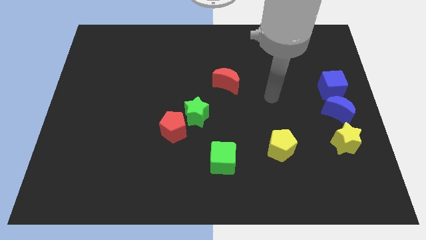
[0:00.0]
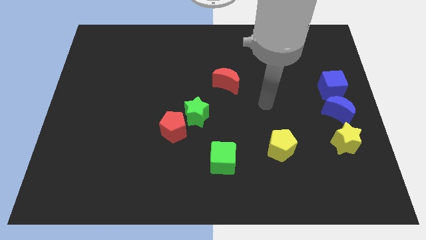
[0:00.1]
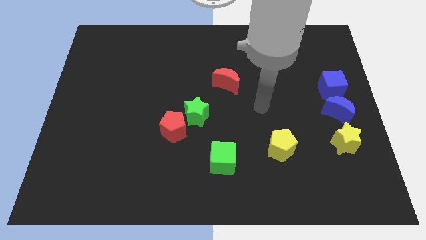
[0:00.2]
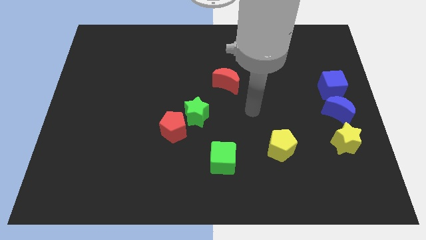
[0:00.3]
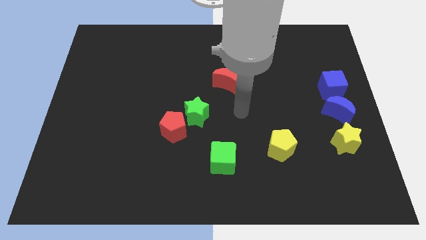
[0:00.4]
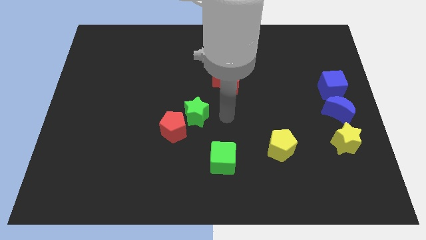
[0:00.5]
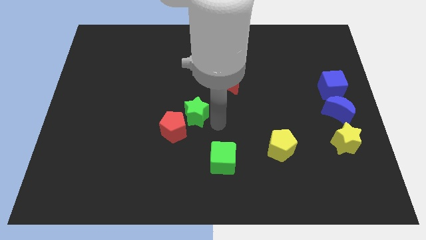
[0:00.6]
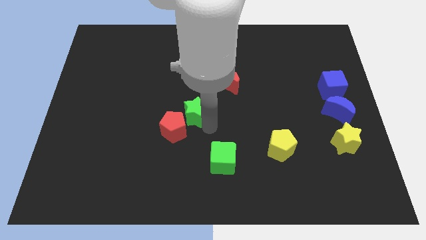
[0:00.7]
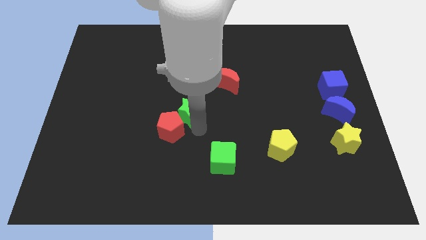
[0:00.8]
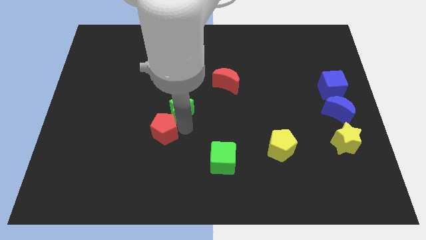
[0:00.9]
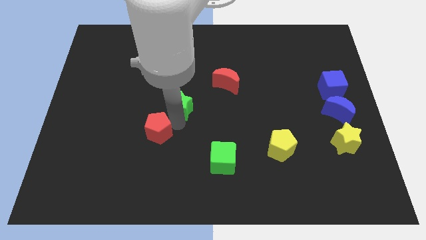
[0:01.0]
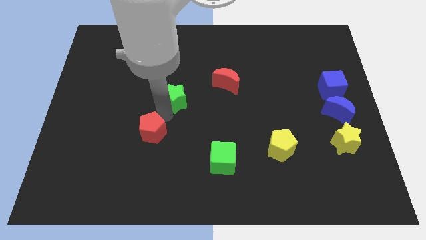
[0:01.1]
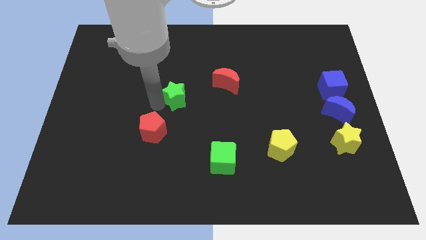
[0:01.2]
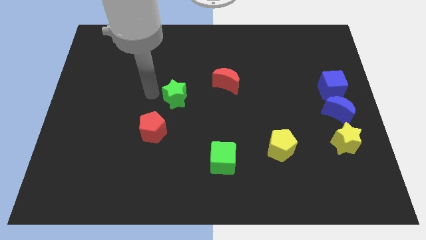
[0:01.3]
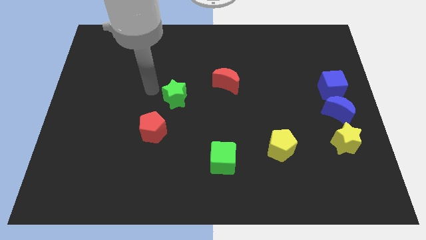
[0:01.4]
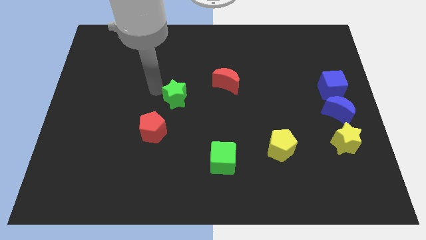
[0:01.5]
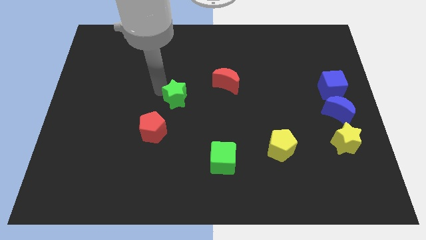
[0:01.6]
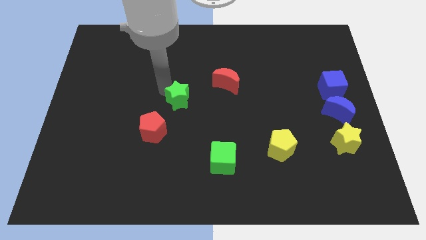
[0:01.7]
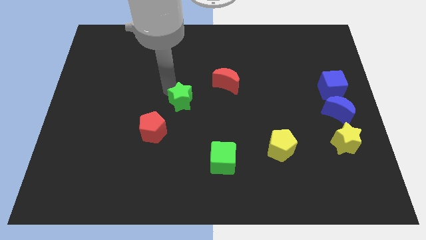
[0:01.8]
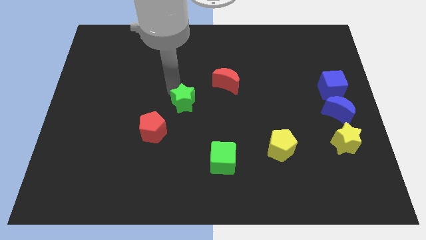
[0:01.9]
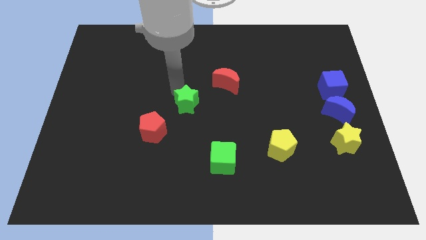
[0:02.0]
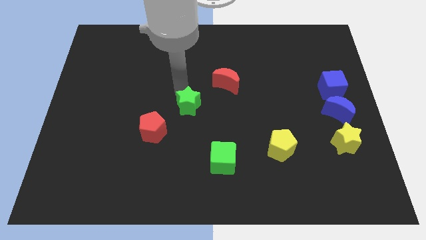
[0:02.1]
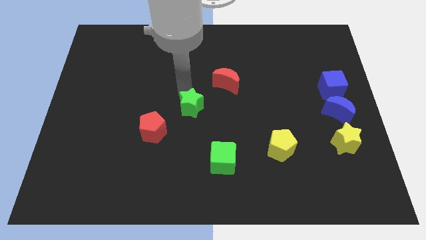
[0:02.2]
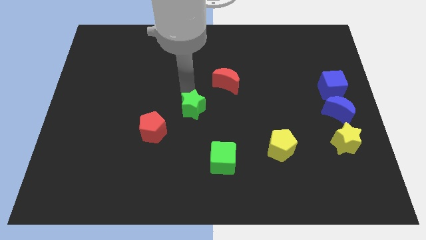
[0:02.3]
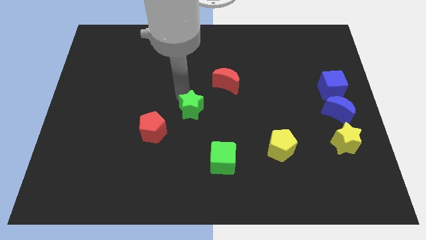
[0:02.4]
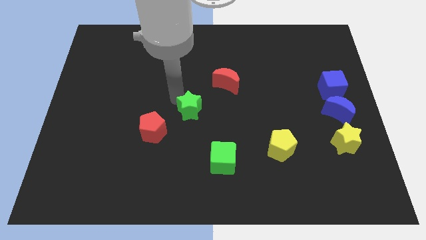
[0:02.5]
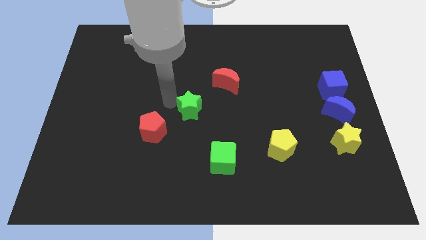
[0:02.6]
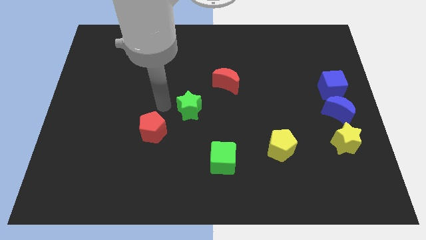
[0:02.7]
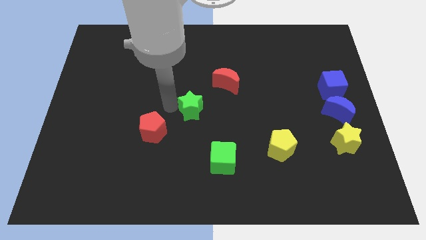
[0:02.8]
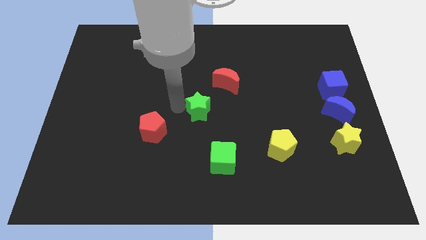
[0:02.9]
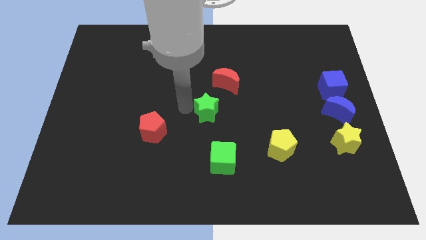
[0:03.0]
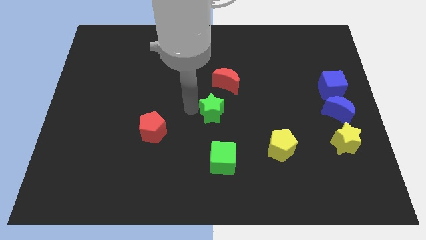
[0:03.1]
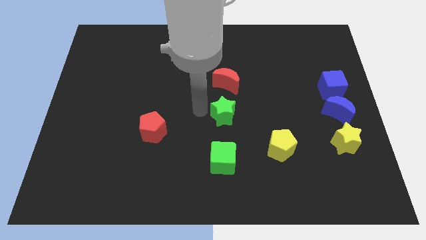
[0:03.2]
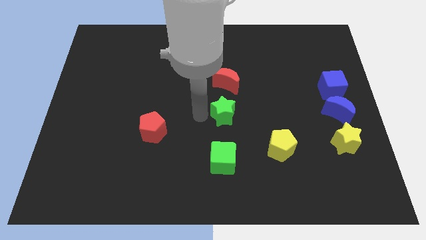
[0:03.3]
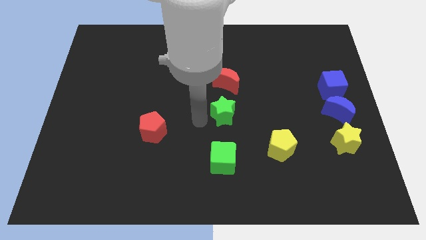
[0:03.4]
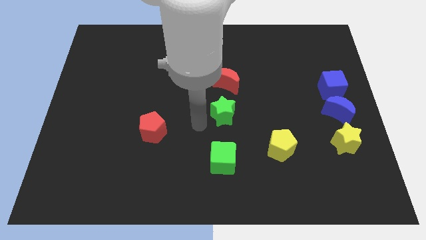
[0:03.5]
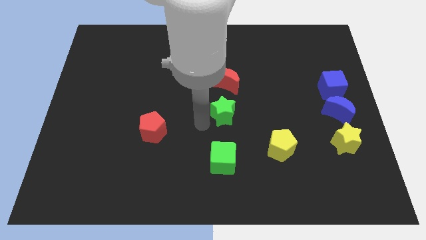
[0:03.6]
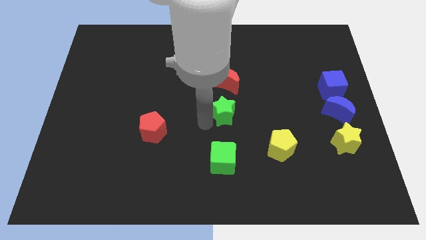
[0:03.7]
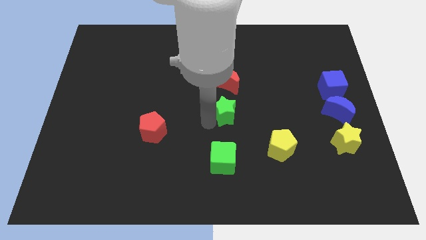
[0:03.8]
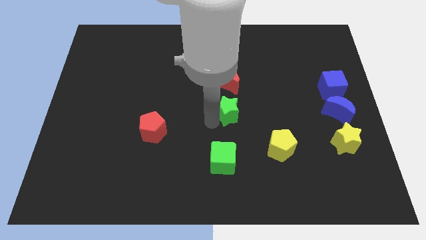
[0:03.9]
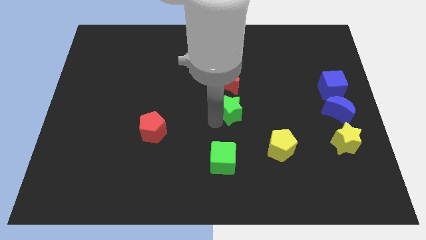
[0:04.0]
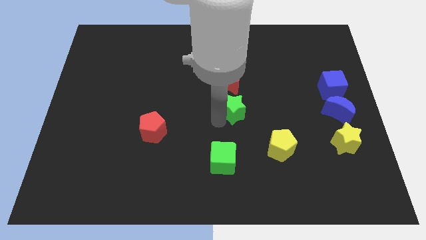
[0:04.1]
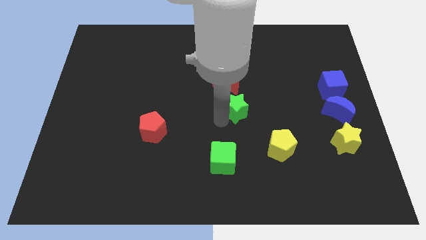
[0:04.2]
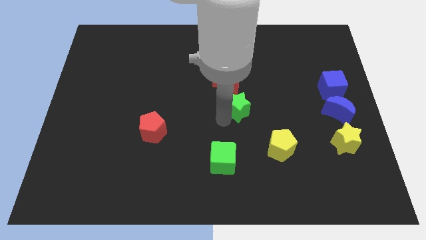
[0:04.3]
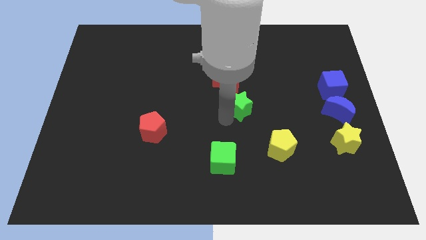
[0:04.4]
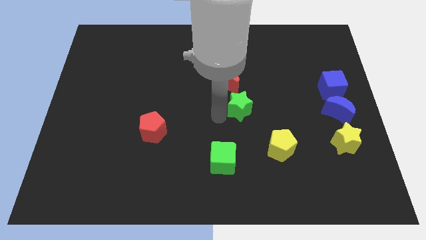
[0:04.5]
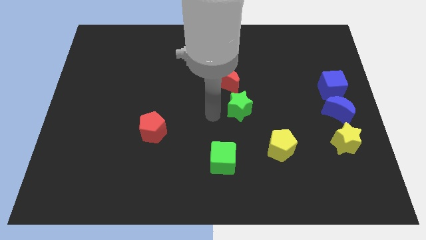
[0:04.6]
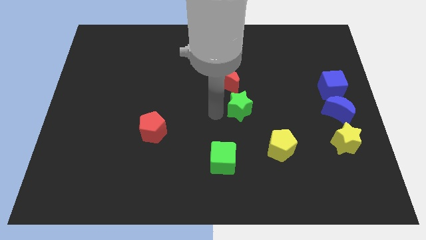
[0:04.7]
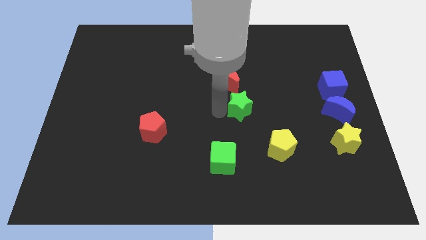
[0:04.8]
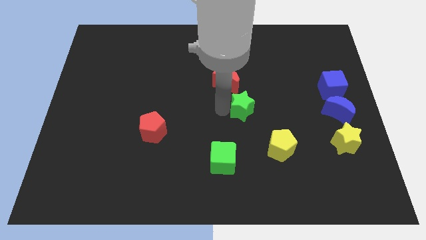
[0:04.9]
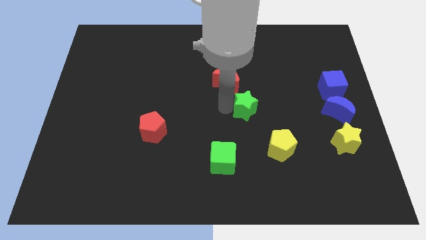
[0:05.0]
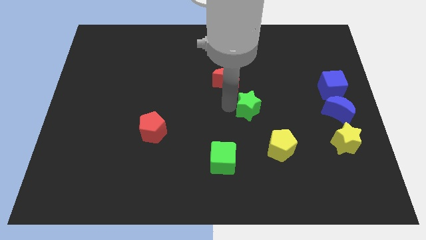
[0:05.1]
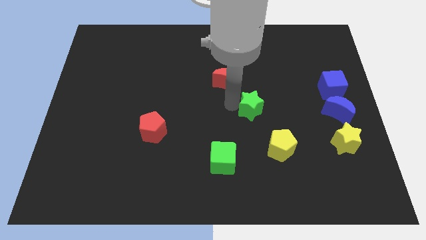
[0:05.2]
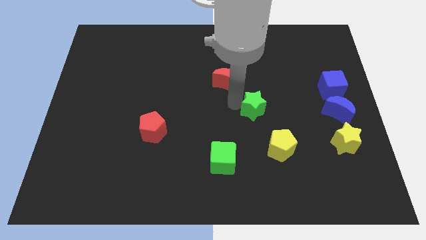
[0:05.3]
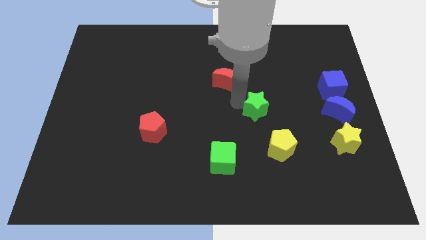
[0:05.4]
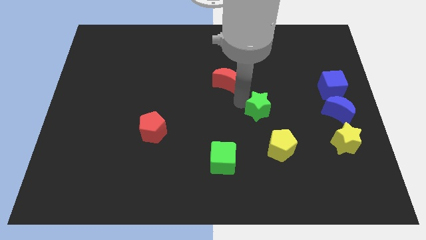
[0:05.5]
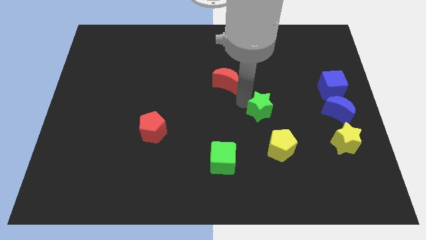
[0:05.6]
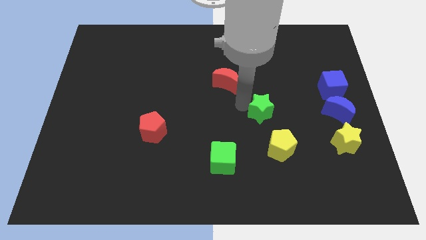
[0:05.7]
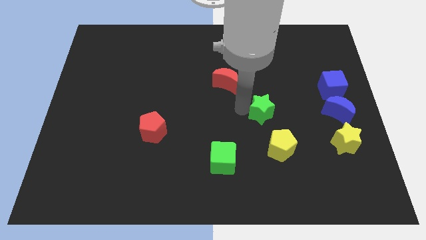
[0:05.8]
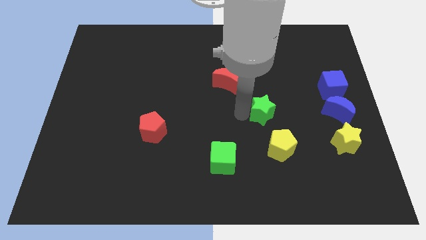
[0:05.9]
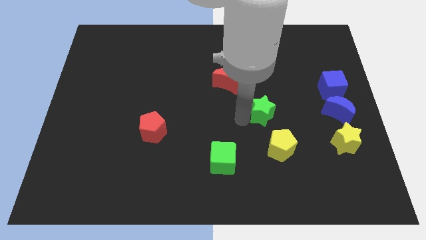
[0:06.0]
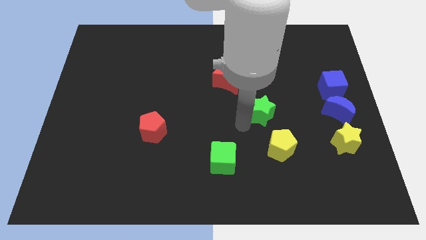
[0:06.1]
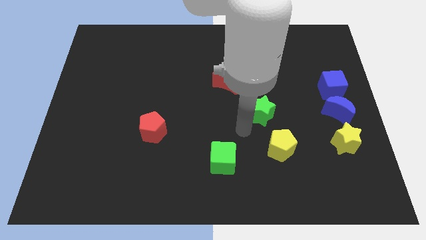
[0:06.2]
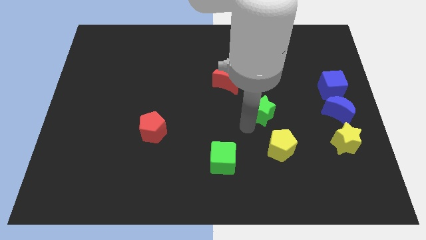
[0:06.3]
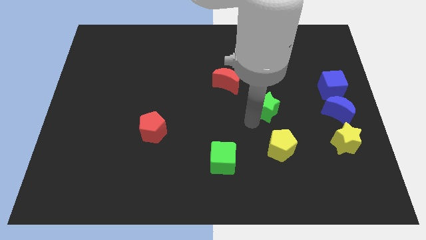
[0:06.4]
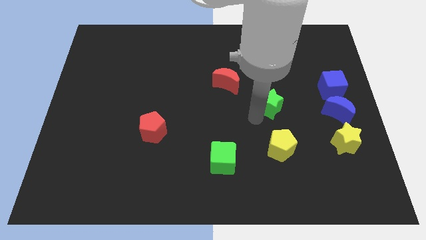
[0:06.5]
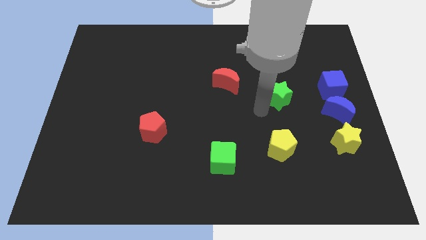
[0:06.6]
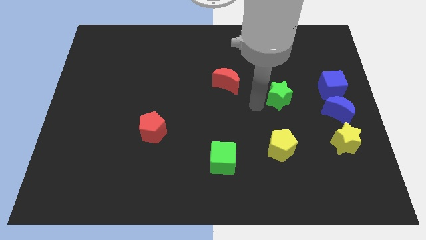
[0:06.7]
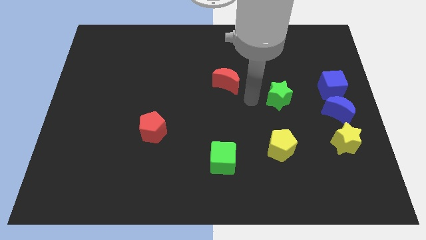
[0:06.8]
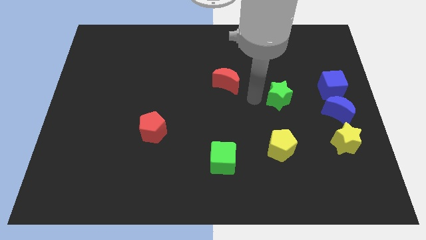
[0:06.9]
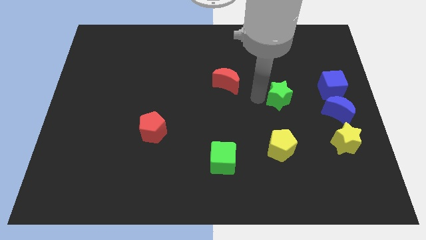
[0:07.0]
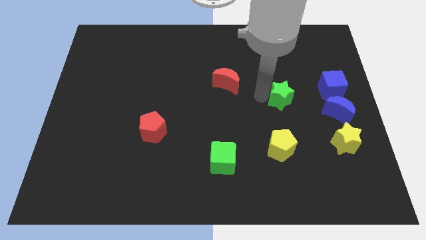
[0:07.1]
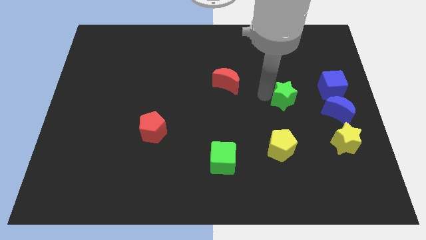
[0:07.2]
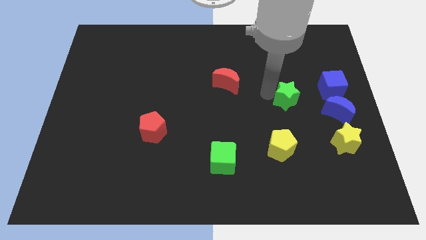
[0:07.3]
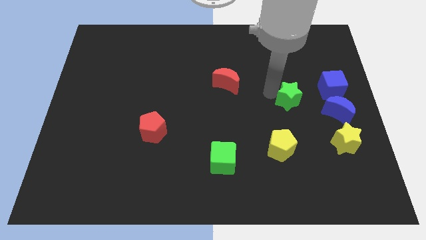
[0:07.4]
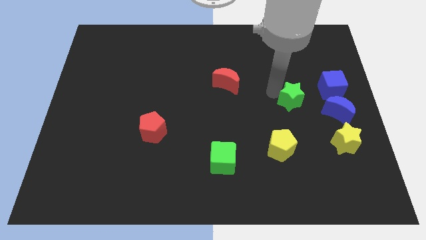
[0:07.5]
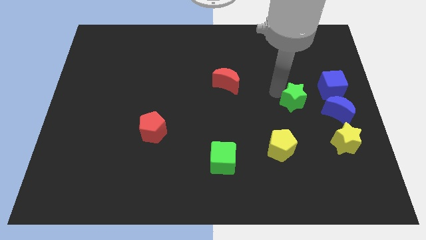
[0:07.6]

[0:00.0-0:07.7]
slide the green star to the top left side of the blue moon
